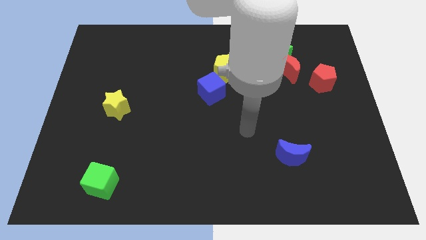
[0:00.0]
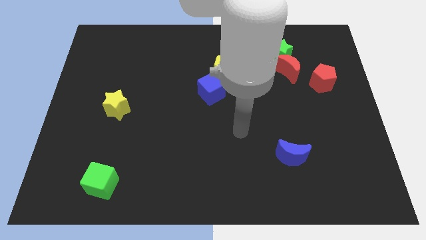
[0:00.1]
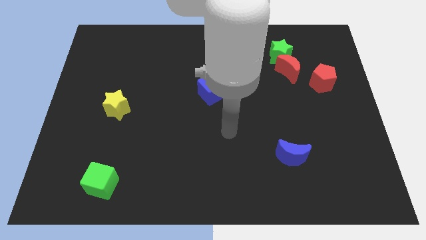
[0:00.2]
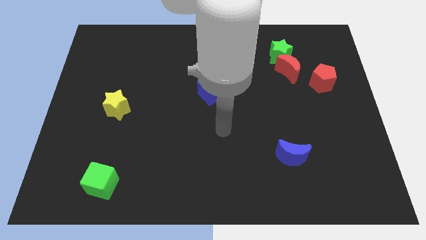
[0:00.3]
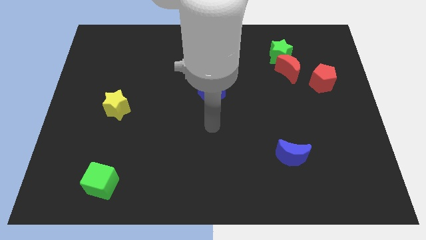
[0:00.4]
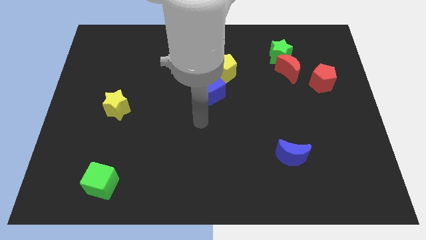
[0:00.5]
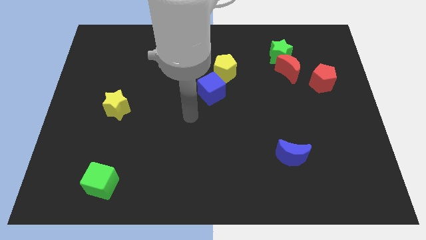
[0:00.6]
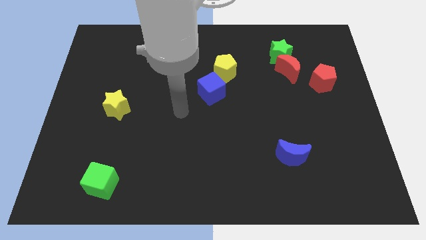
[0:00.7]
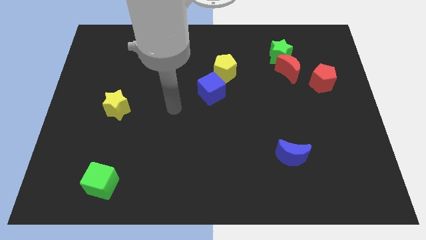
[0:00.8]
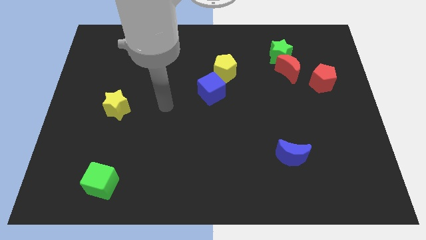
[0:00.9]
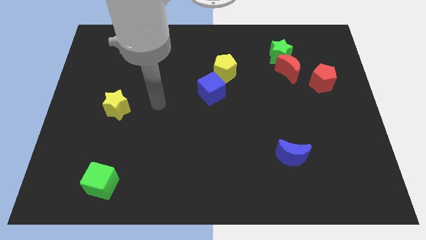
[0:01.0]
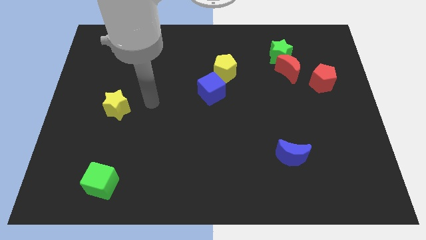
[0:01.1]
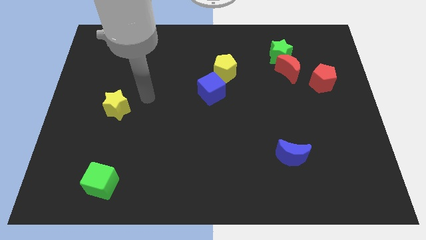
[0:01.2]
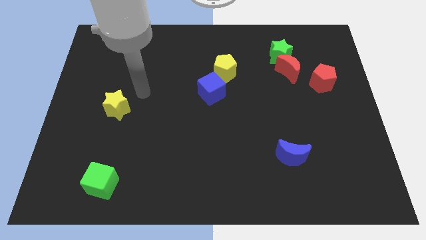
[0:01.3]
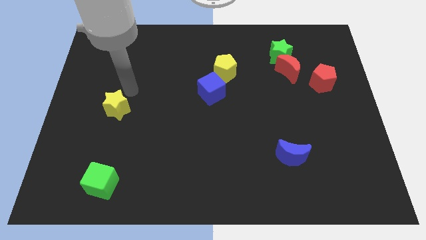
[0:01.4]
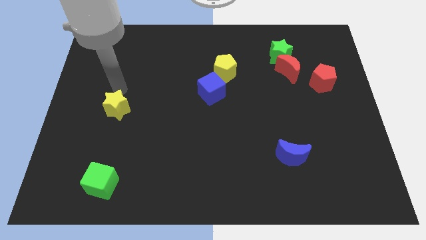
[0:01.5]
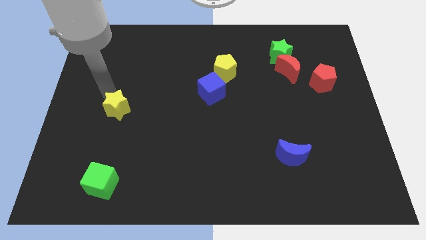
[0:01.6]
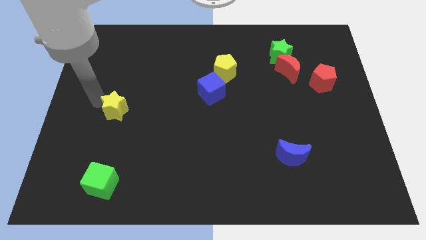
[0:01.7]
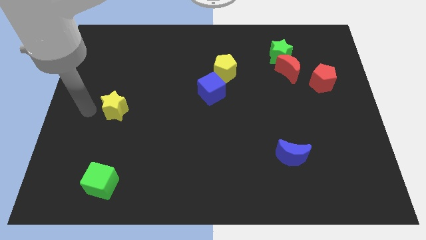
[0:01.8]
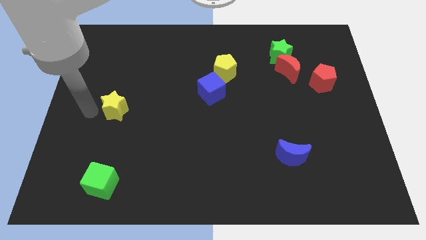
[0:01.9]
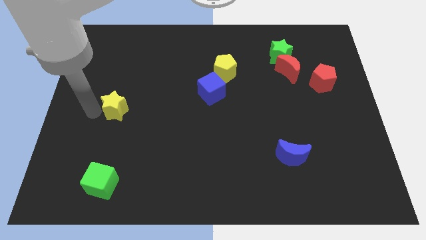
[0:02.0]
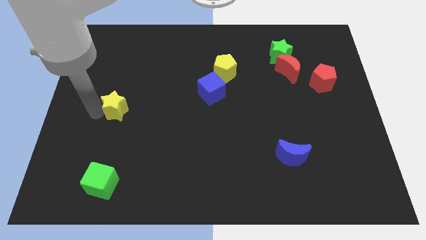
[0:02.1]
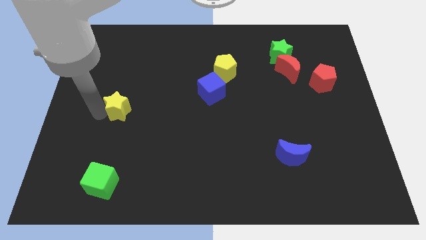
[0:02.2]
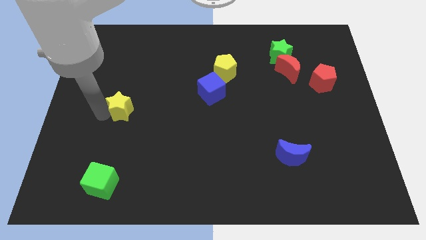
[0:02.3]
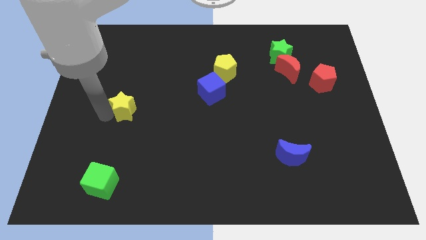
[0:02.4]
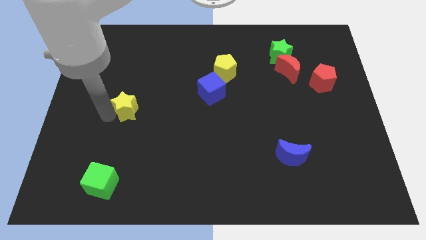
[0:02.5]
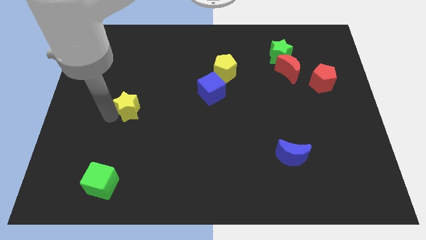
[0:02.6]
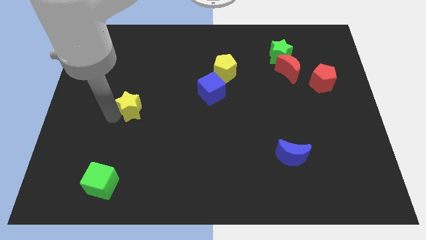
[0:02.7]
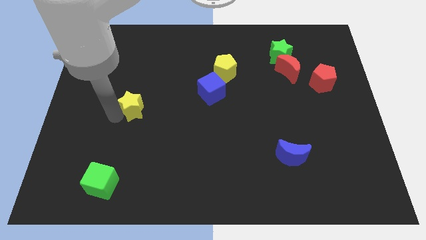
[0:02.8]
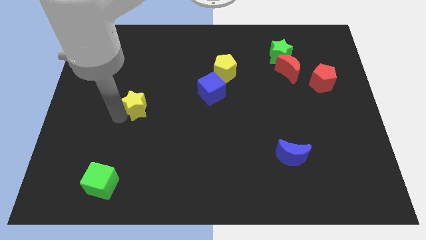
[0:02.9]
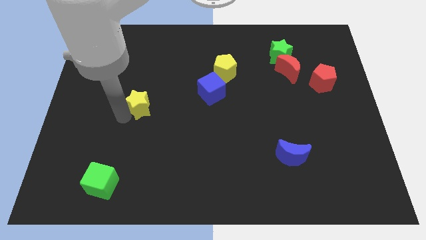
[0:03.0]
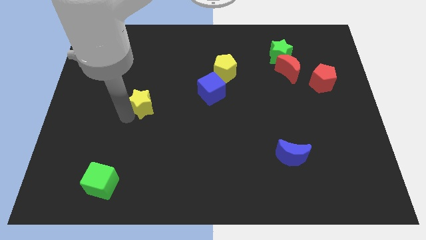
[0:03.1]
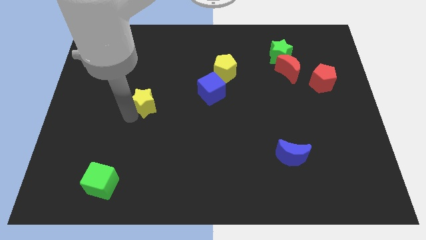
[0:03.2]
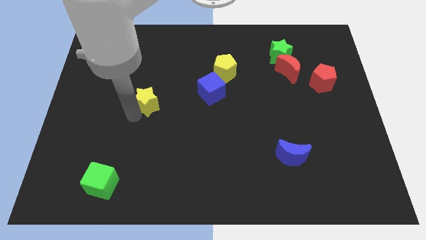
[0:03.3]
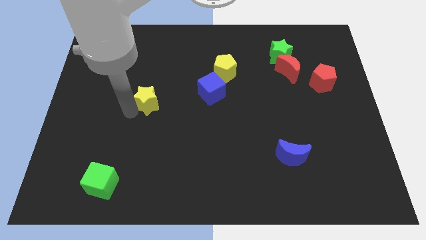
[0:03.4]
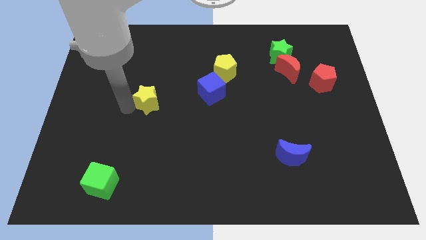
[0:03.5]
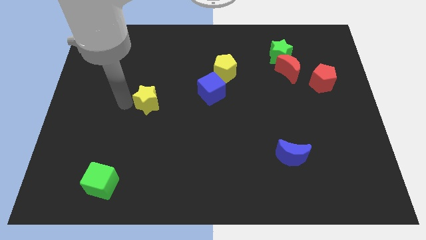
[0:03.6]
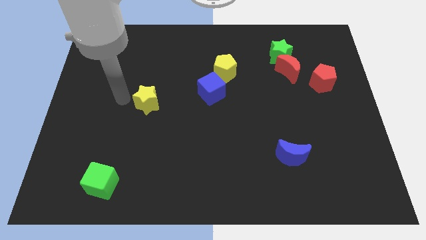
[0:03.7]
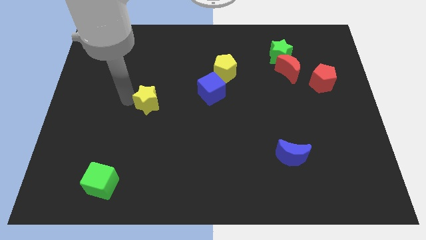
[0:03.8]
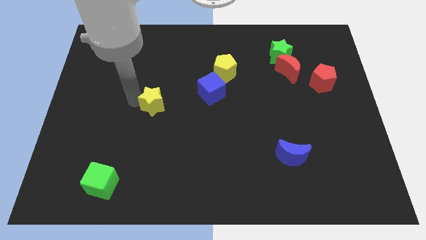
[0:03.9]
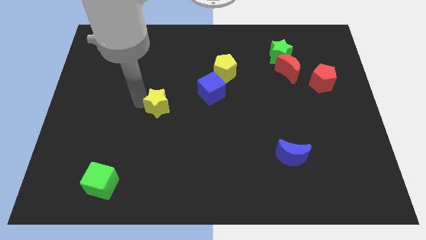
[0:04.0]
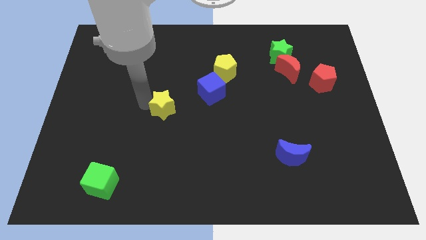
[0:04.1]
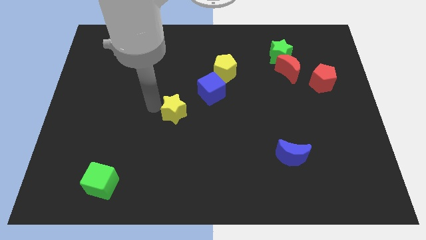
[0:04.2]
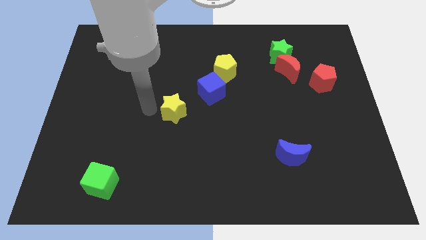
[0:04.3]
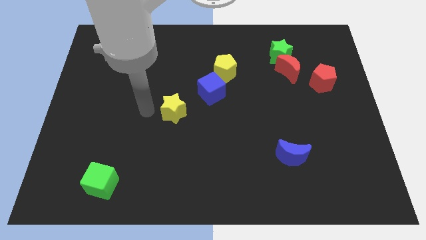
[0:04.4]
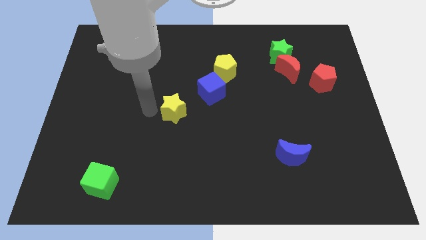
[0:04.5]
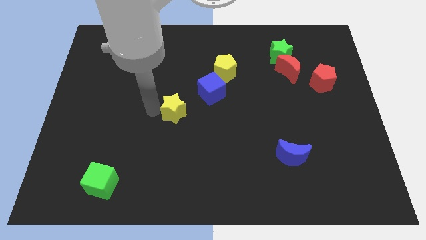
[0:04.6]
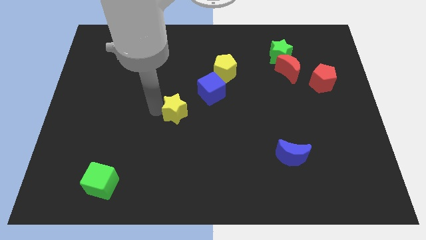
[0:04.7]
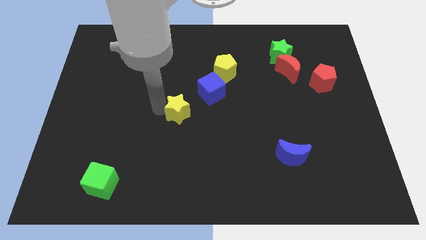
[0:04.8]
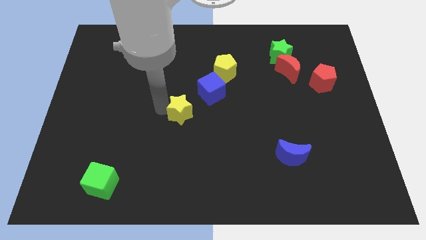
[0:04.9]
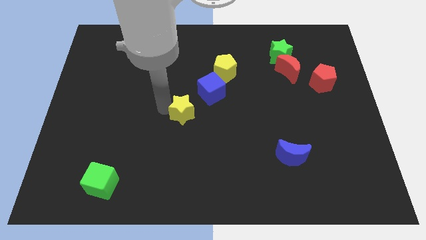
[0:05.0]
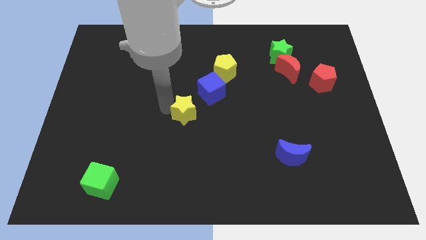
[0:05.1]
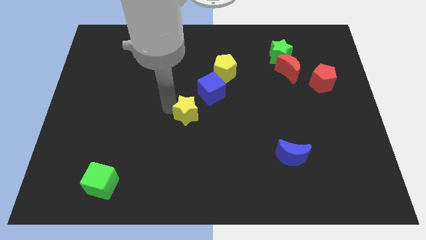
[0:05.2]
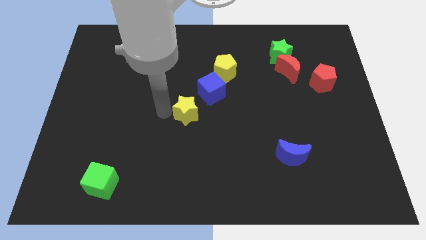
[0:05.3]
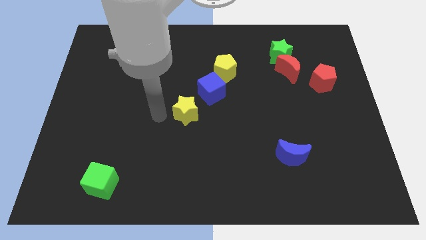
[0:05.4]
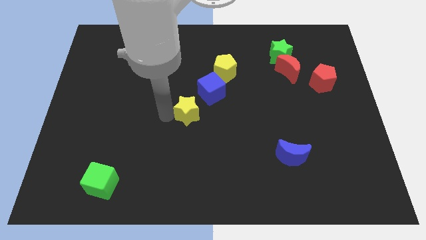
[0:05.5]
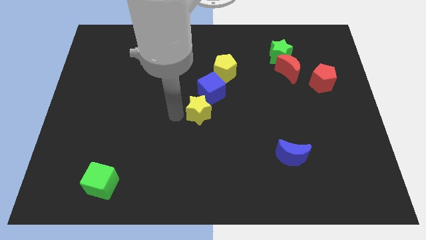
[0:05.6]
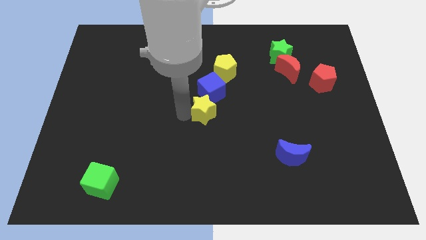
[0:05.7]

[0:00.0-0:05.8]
slide the yellow star to the right

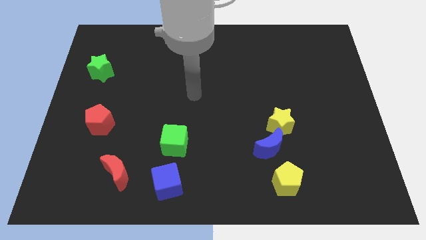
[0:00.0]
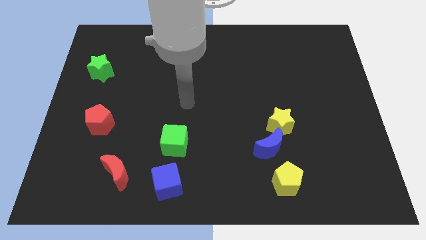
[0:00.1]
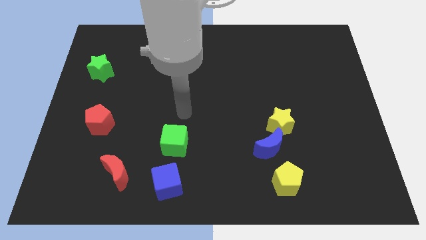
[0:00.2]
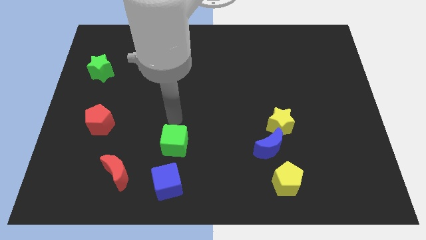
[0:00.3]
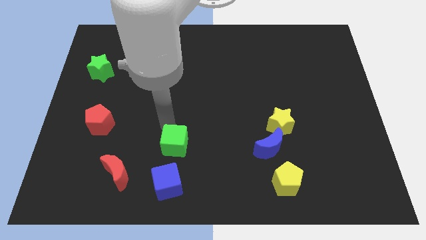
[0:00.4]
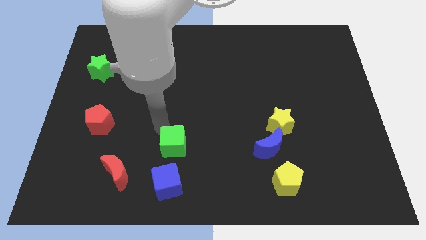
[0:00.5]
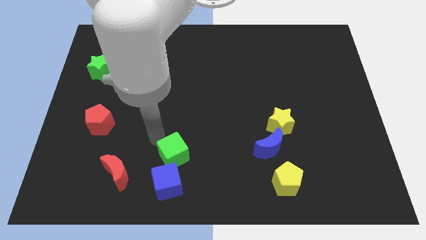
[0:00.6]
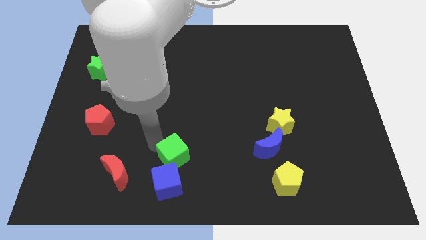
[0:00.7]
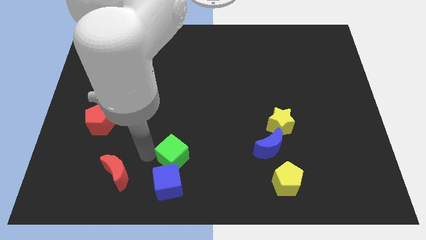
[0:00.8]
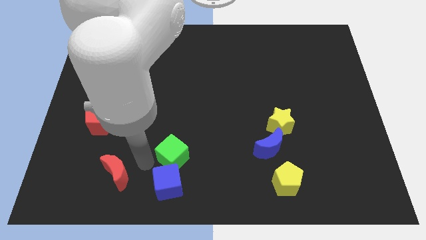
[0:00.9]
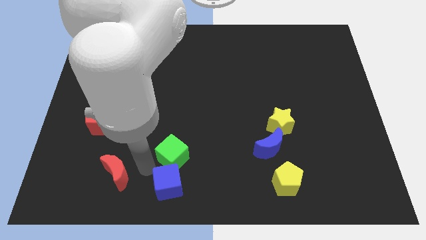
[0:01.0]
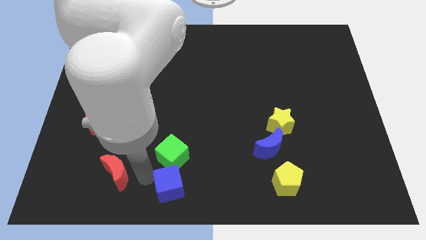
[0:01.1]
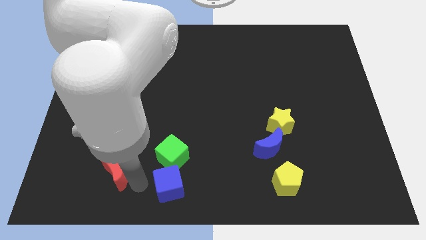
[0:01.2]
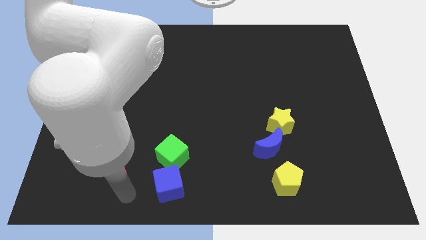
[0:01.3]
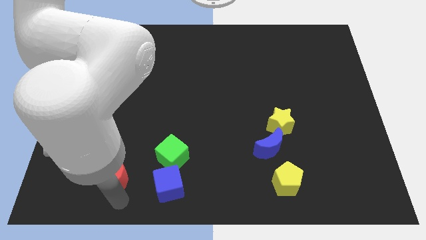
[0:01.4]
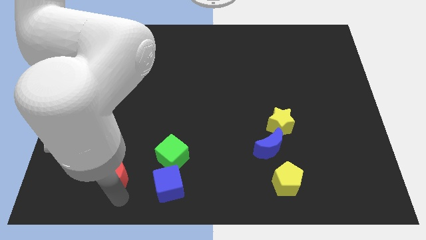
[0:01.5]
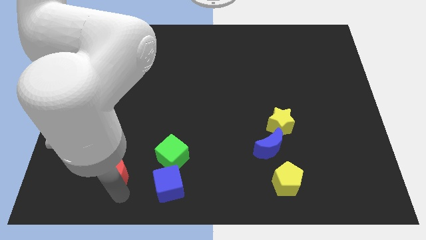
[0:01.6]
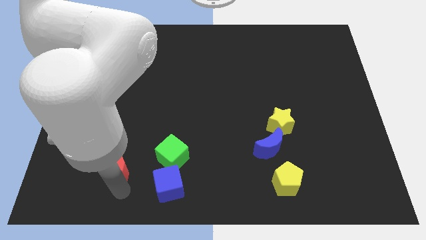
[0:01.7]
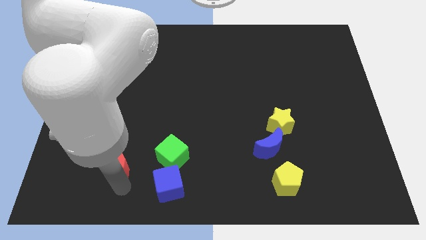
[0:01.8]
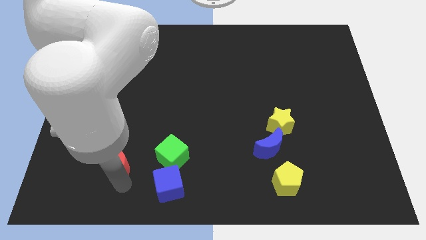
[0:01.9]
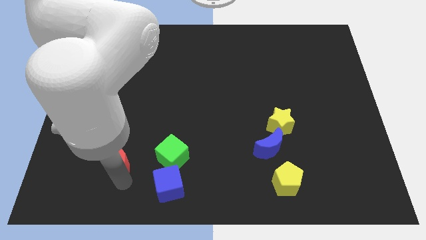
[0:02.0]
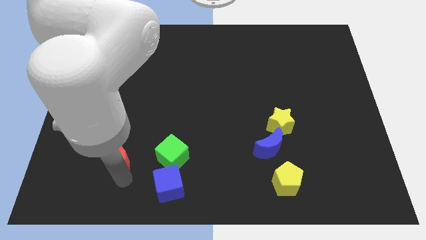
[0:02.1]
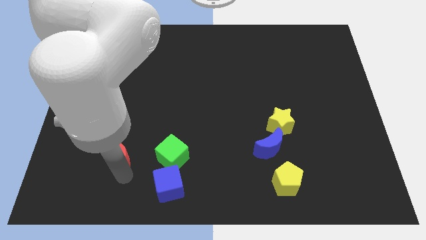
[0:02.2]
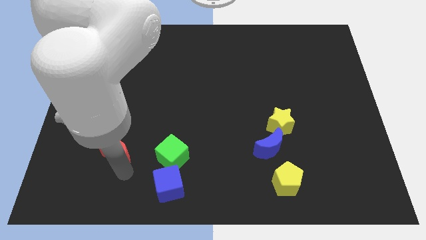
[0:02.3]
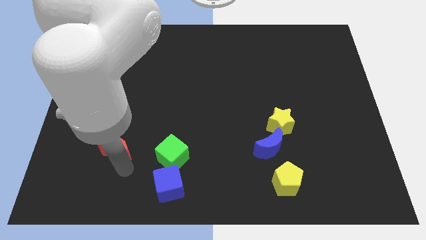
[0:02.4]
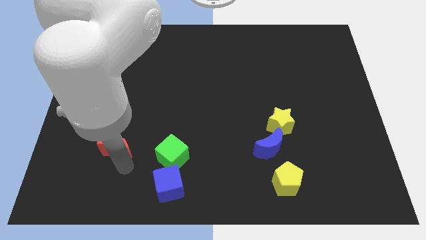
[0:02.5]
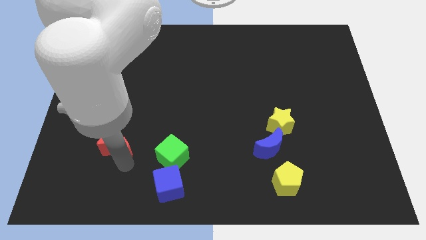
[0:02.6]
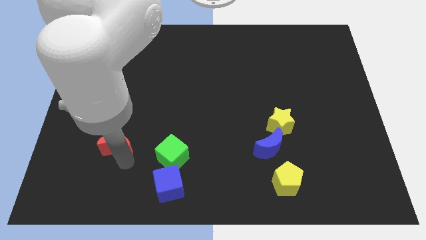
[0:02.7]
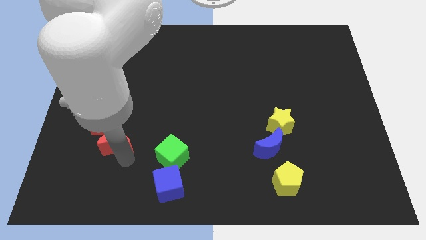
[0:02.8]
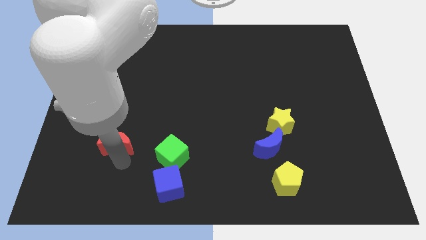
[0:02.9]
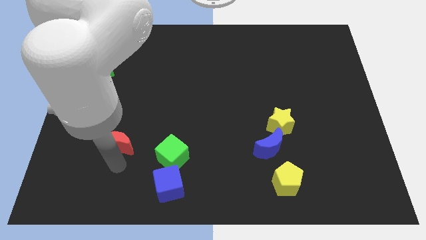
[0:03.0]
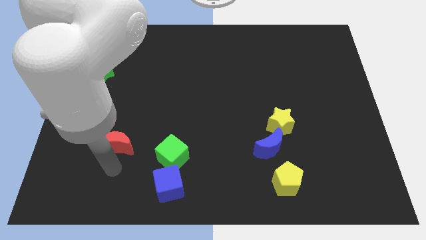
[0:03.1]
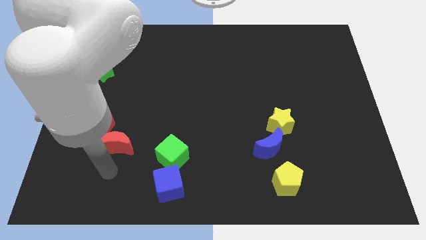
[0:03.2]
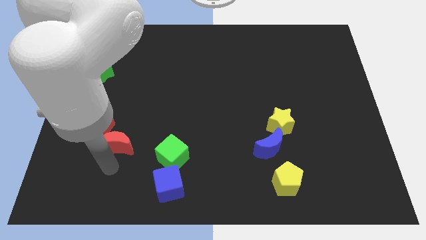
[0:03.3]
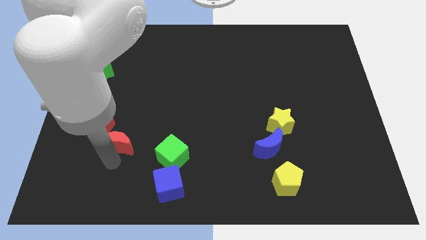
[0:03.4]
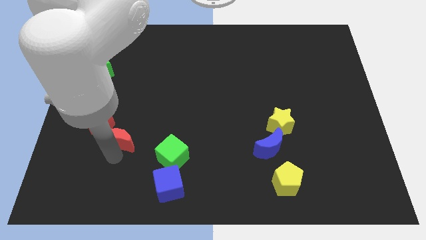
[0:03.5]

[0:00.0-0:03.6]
slide the red moon a little up
